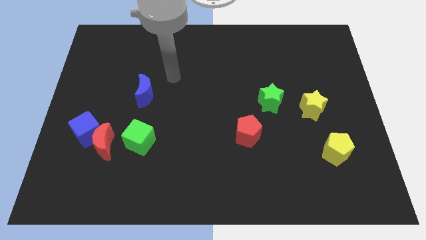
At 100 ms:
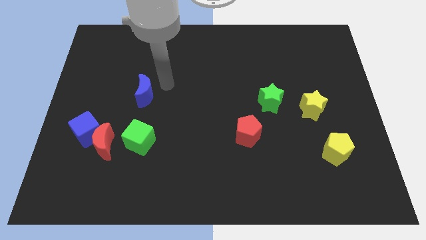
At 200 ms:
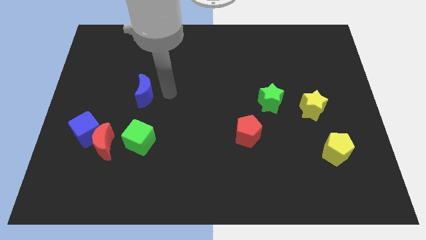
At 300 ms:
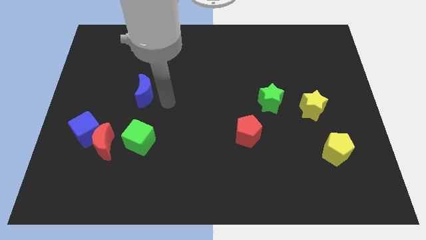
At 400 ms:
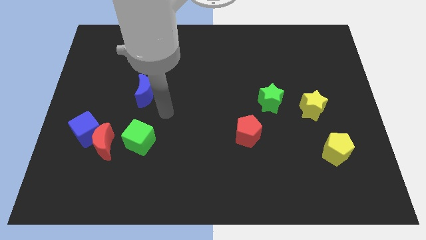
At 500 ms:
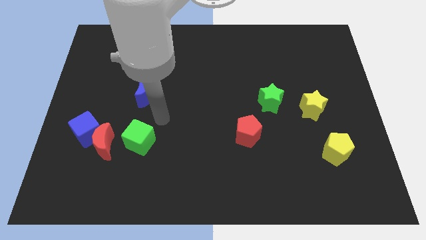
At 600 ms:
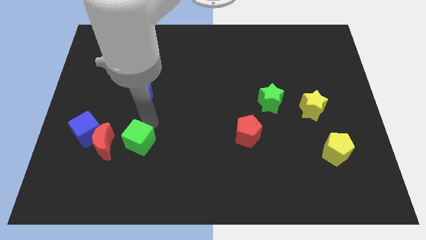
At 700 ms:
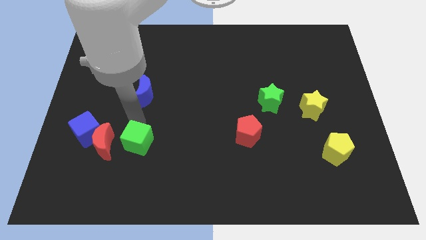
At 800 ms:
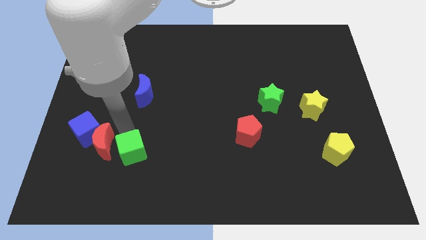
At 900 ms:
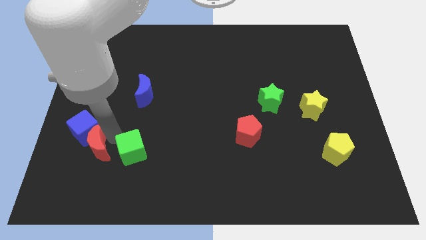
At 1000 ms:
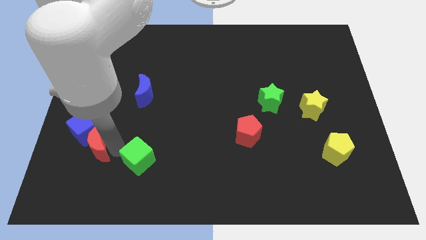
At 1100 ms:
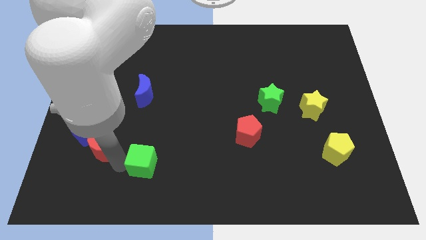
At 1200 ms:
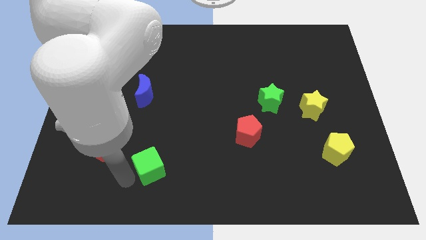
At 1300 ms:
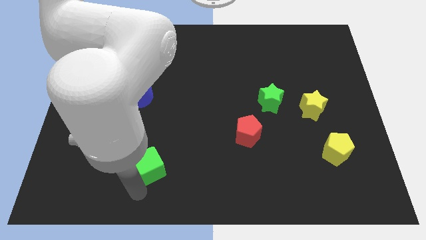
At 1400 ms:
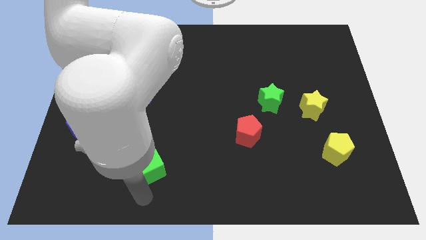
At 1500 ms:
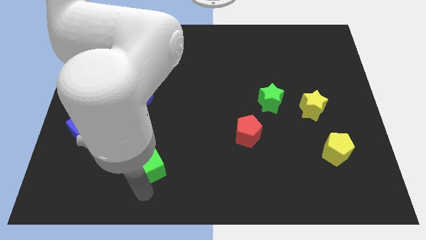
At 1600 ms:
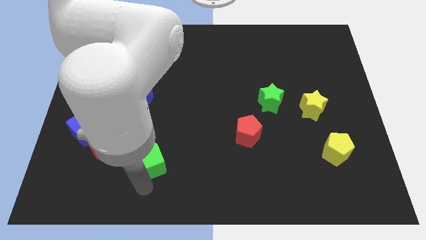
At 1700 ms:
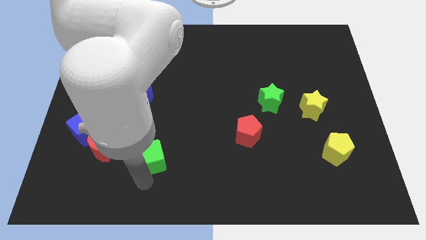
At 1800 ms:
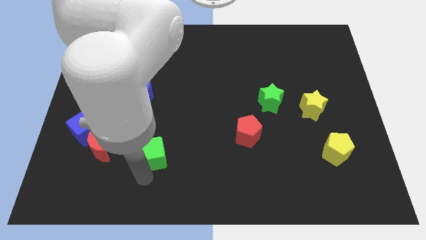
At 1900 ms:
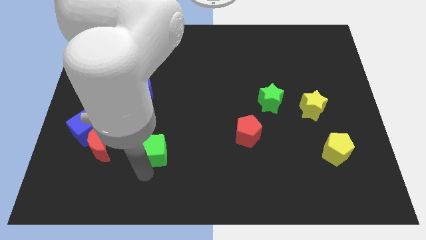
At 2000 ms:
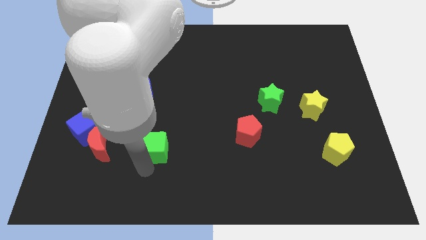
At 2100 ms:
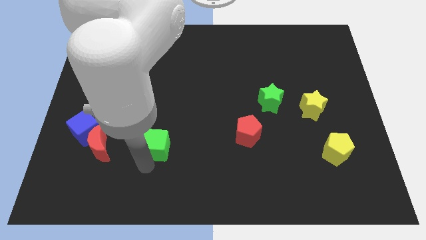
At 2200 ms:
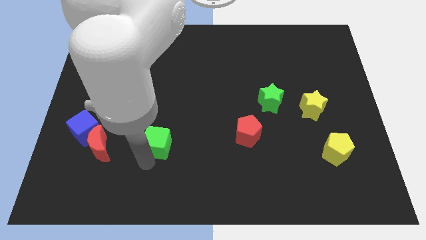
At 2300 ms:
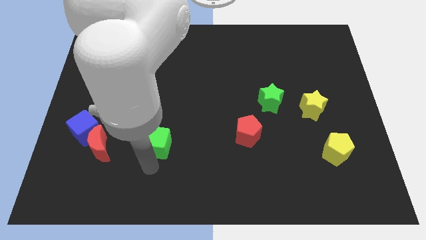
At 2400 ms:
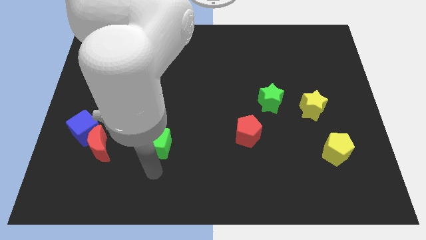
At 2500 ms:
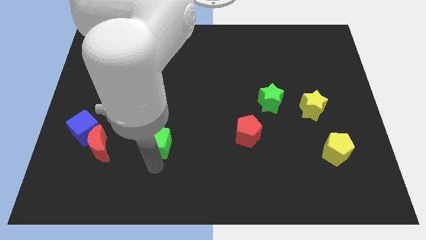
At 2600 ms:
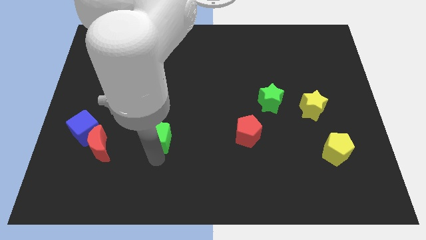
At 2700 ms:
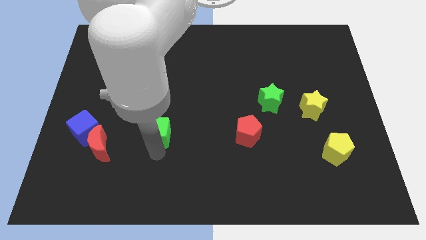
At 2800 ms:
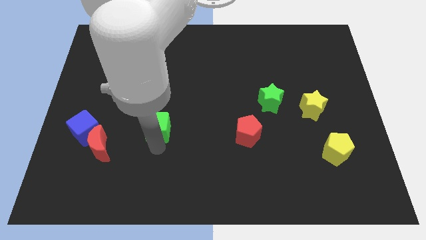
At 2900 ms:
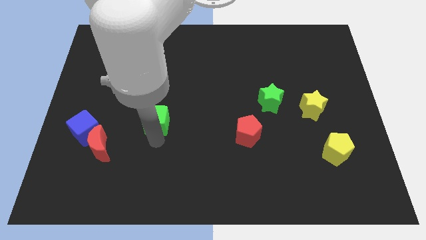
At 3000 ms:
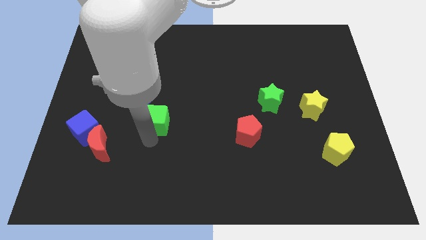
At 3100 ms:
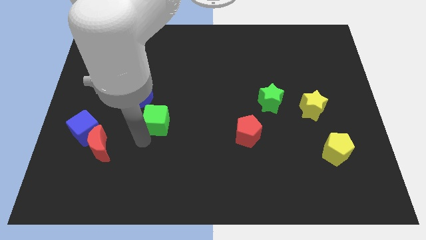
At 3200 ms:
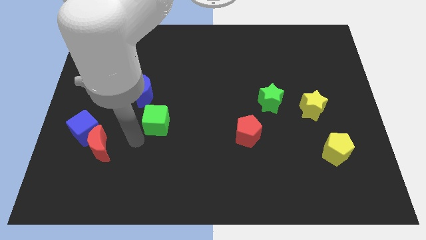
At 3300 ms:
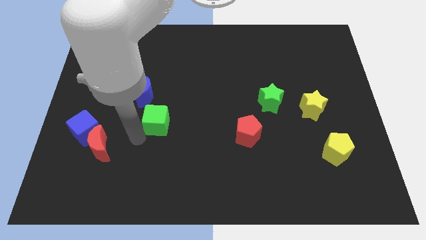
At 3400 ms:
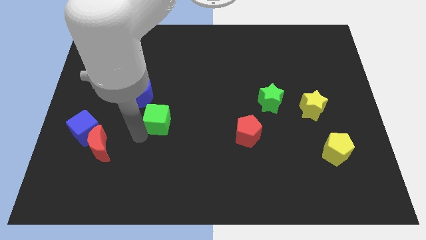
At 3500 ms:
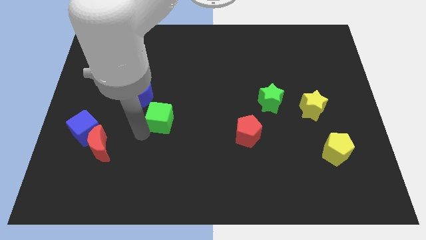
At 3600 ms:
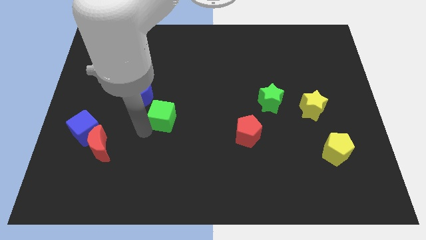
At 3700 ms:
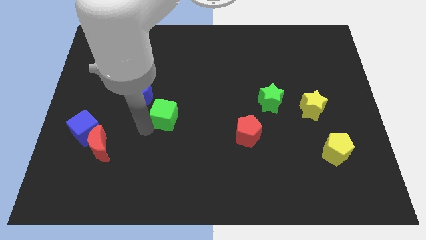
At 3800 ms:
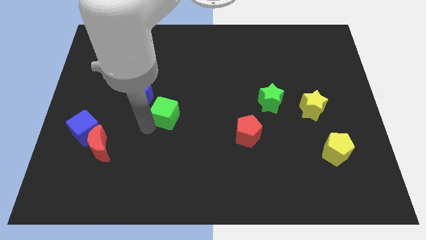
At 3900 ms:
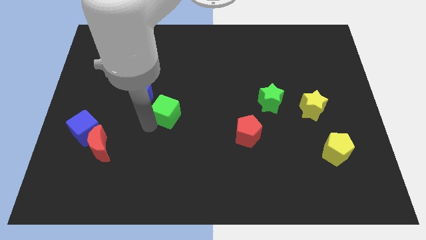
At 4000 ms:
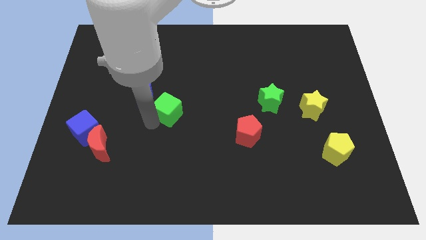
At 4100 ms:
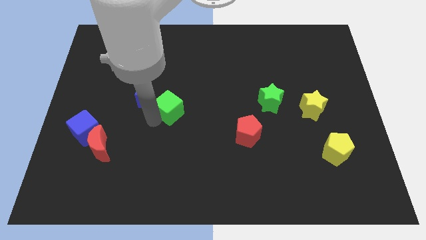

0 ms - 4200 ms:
put the green cube just right of the blue moon

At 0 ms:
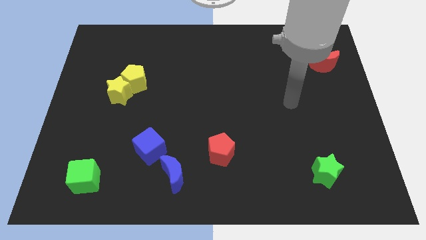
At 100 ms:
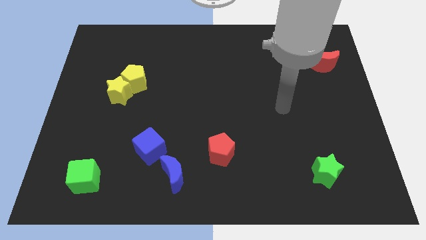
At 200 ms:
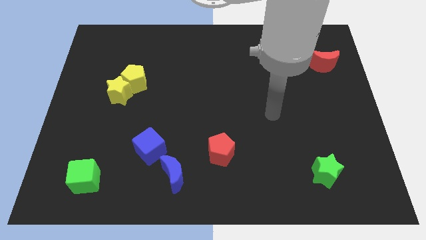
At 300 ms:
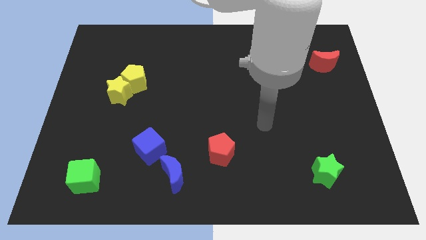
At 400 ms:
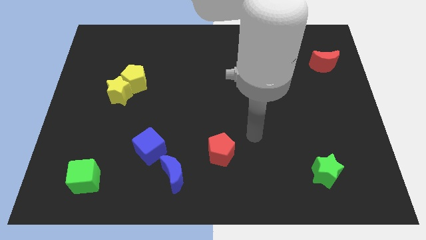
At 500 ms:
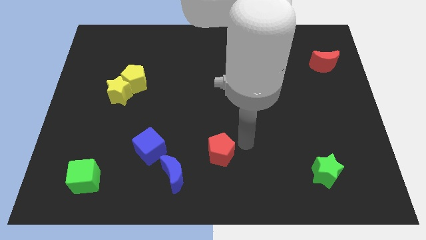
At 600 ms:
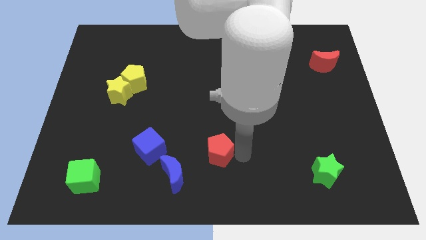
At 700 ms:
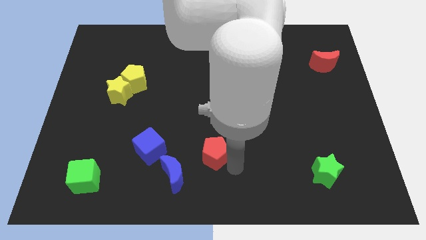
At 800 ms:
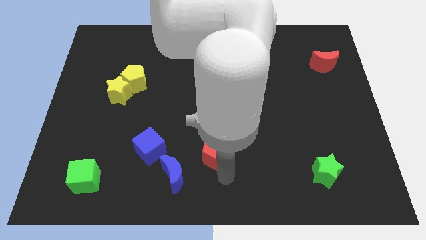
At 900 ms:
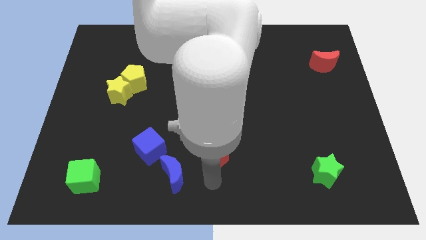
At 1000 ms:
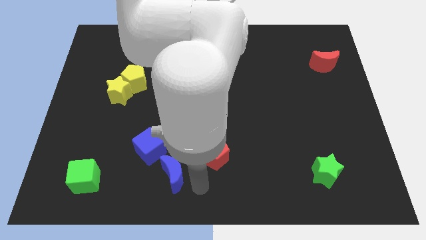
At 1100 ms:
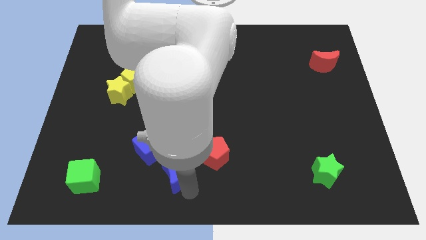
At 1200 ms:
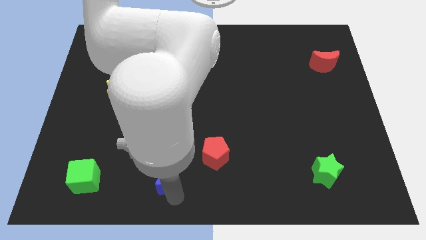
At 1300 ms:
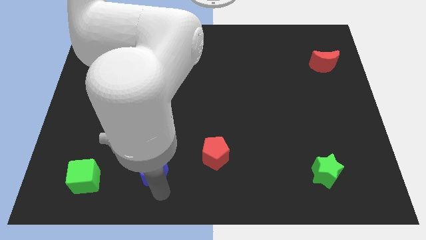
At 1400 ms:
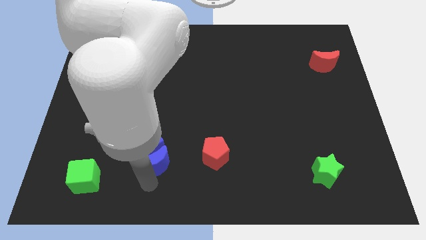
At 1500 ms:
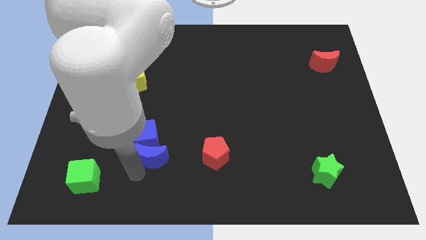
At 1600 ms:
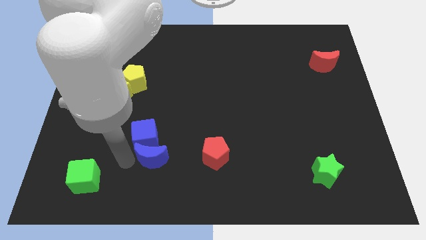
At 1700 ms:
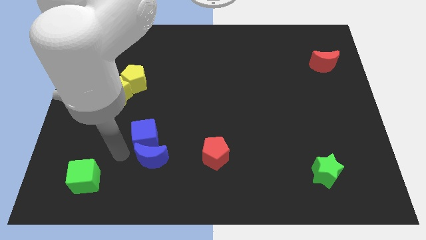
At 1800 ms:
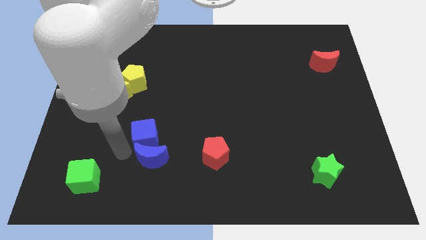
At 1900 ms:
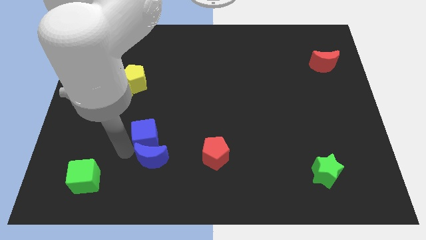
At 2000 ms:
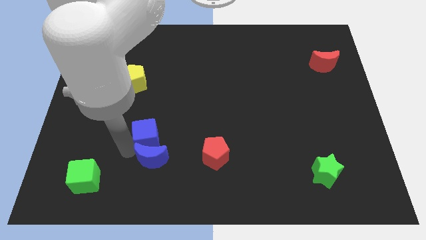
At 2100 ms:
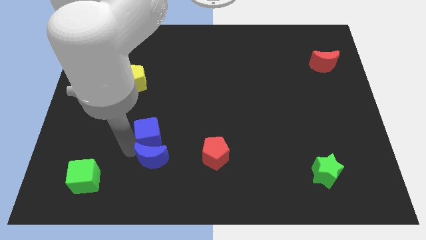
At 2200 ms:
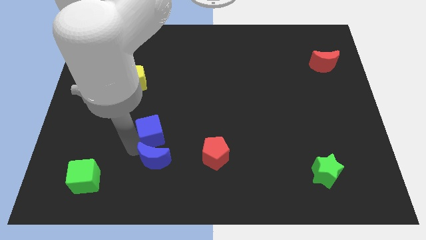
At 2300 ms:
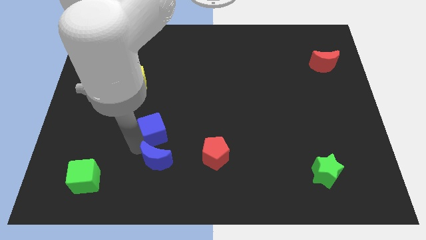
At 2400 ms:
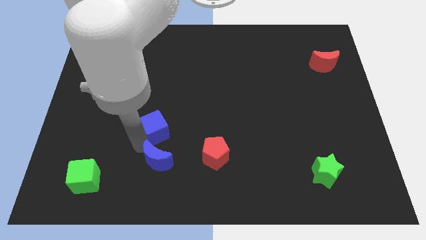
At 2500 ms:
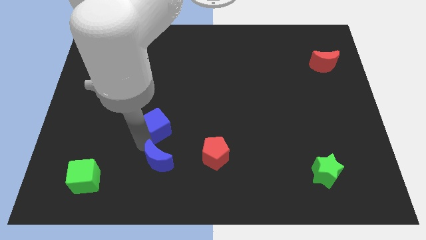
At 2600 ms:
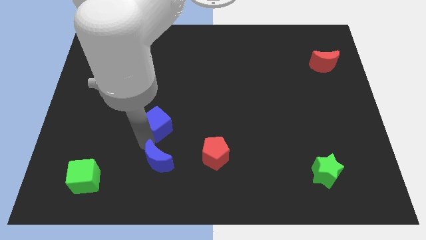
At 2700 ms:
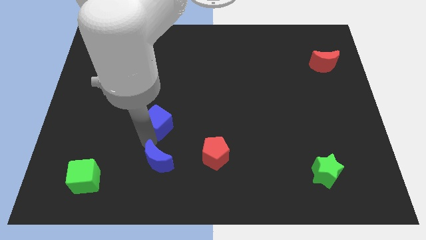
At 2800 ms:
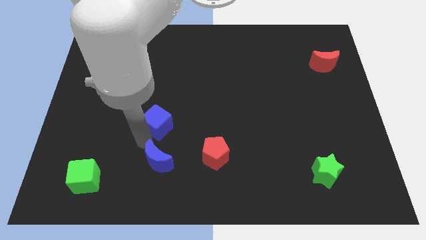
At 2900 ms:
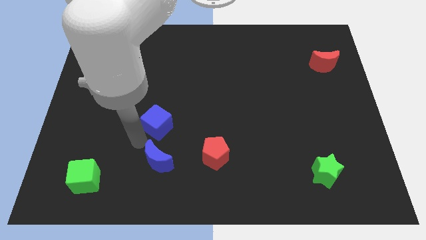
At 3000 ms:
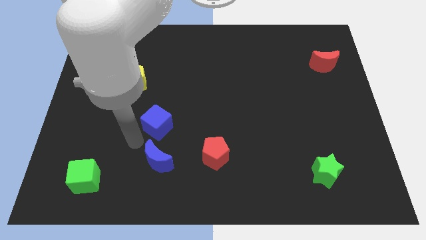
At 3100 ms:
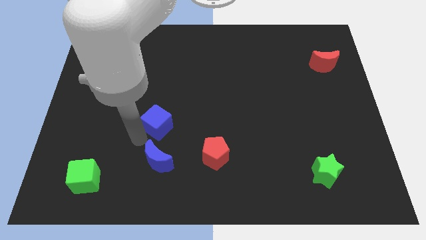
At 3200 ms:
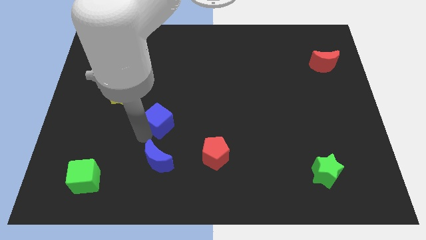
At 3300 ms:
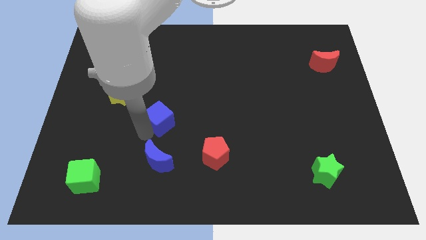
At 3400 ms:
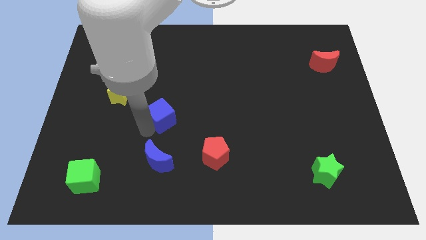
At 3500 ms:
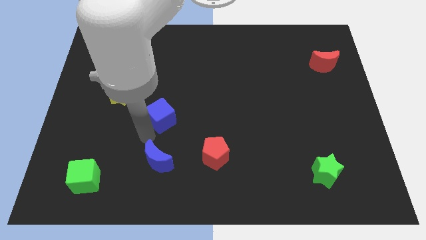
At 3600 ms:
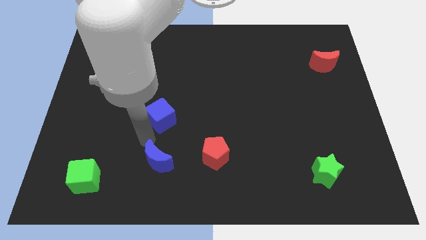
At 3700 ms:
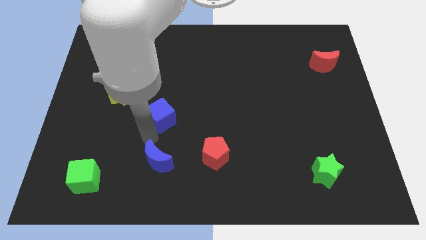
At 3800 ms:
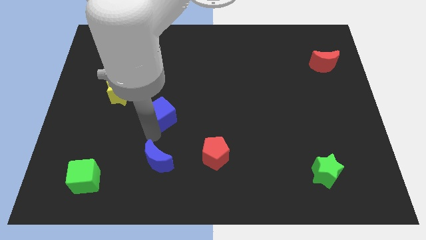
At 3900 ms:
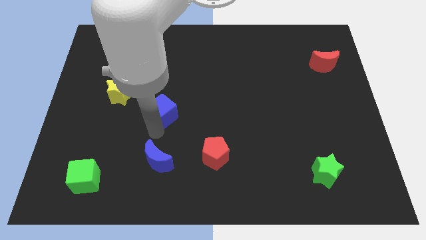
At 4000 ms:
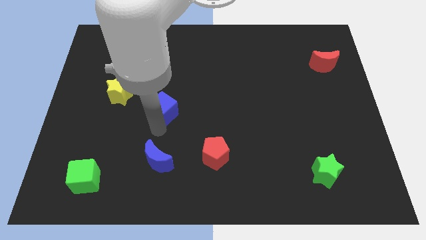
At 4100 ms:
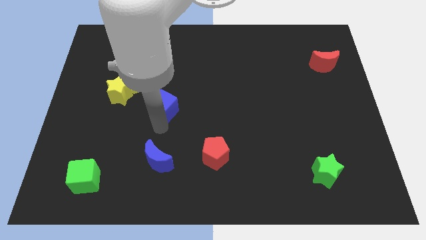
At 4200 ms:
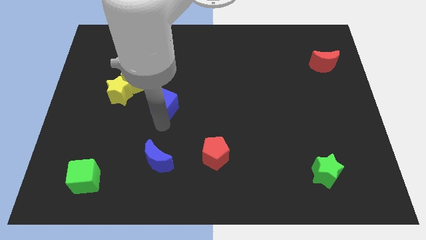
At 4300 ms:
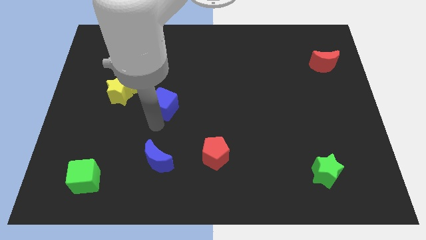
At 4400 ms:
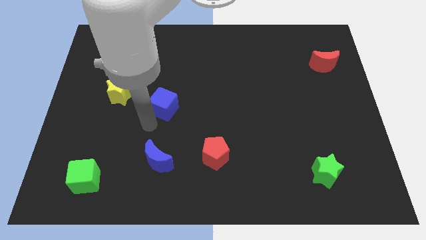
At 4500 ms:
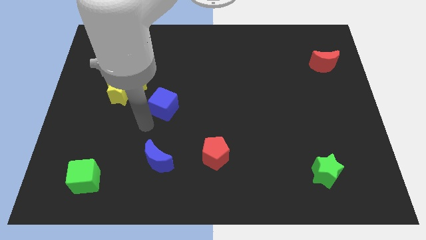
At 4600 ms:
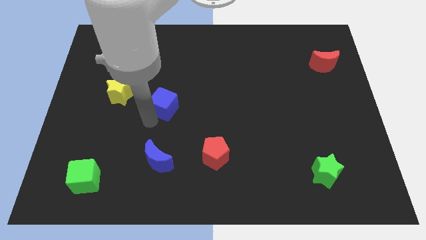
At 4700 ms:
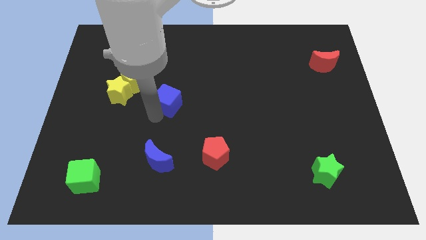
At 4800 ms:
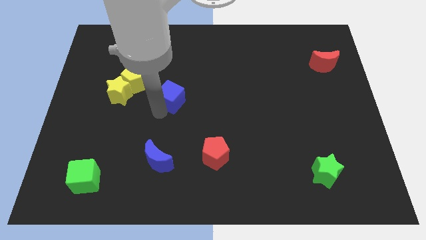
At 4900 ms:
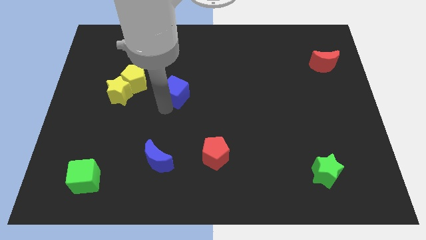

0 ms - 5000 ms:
slide the blue cube right of the yellow pentagon
